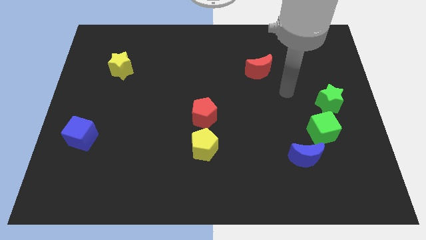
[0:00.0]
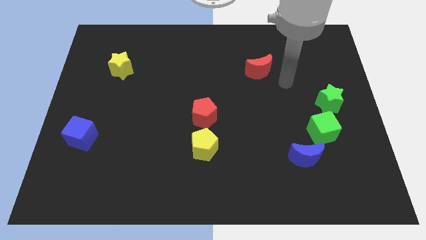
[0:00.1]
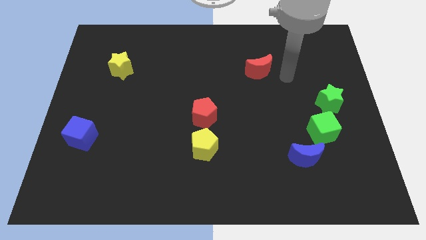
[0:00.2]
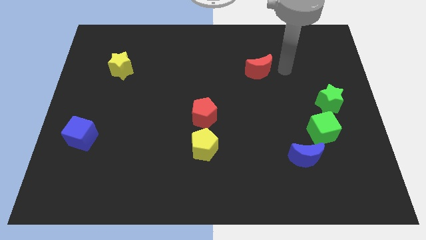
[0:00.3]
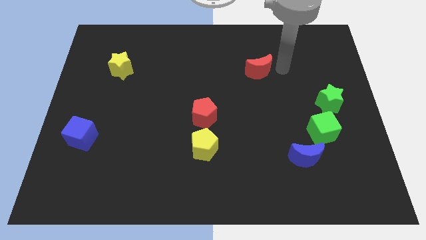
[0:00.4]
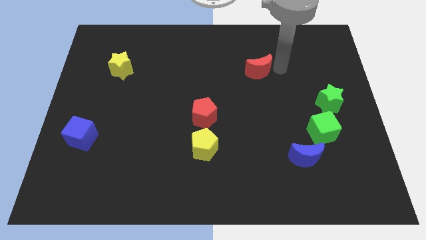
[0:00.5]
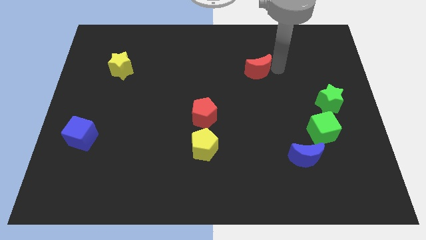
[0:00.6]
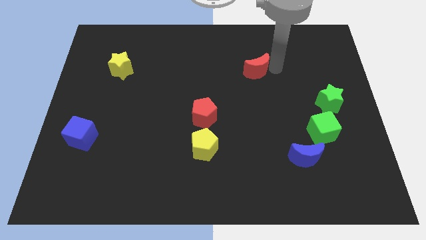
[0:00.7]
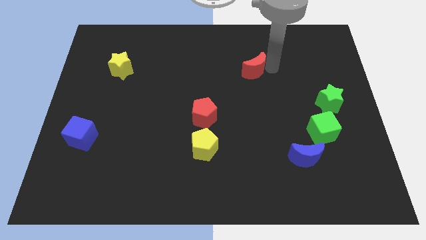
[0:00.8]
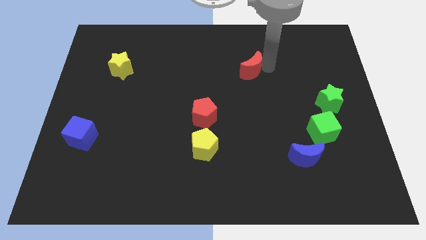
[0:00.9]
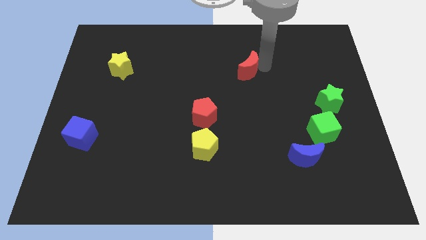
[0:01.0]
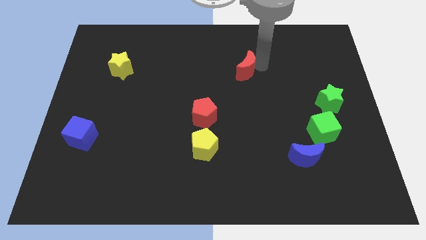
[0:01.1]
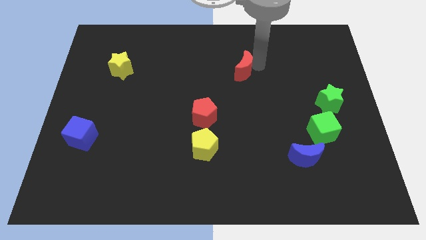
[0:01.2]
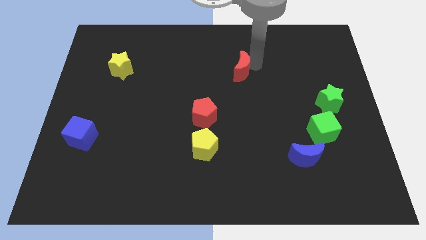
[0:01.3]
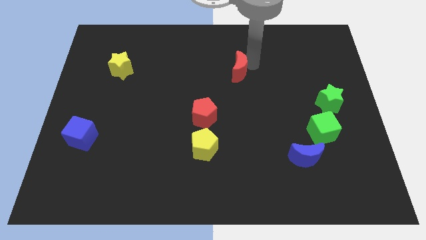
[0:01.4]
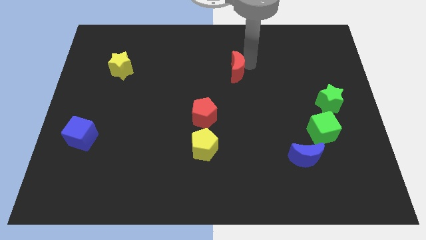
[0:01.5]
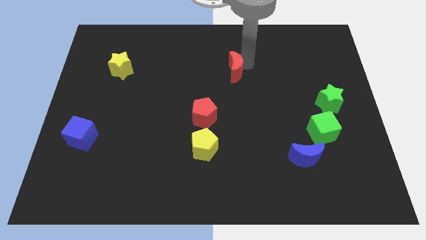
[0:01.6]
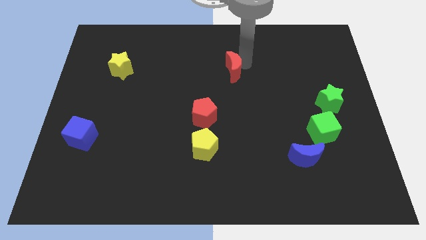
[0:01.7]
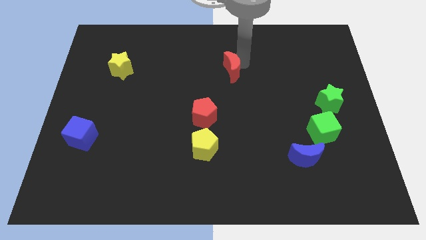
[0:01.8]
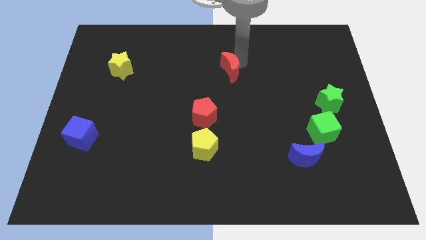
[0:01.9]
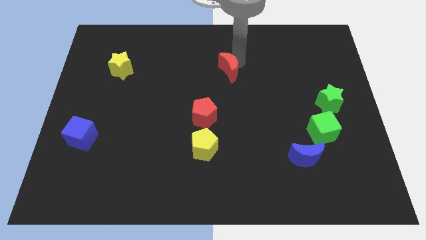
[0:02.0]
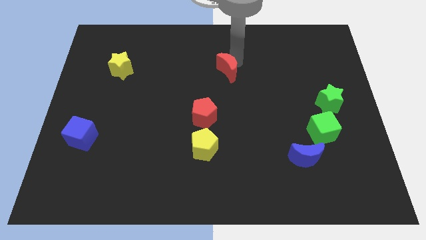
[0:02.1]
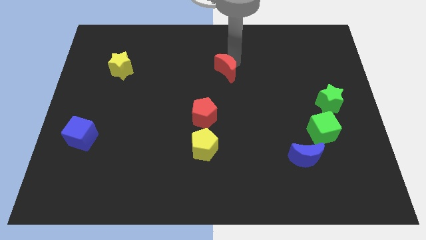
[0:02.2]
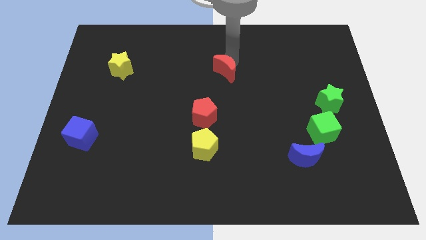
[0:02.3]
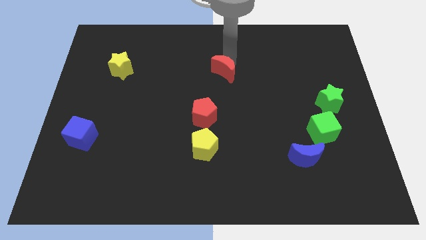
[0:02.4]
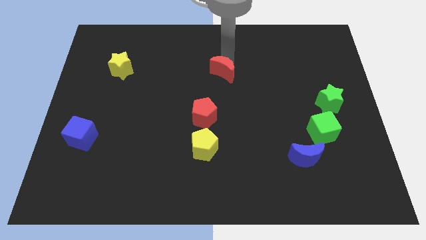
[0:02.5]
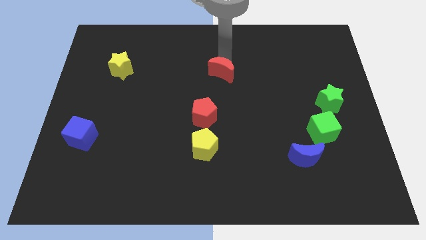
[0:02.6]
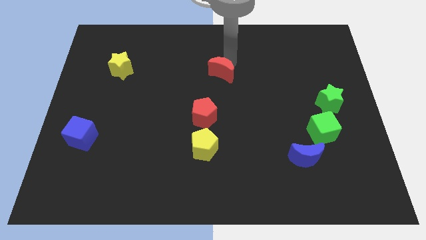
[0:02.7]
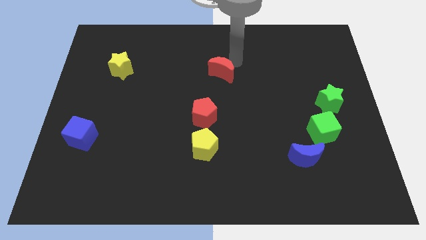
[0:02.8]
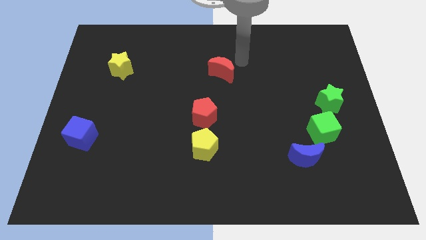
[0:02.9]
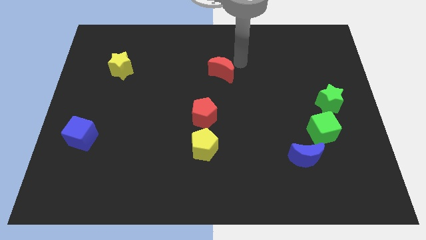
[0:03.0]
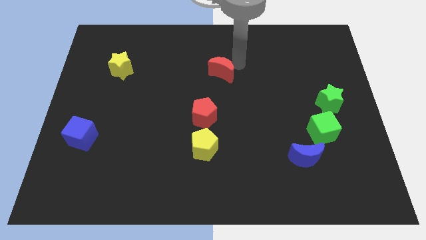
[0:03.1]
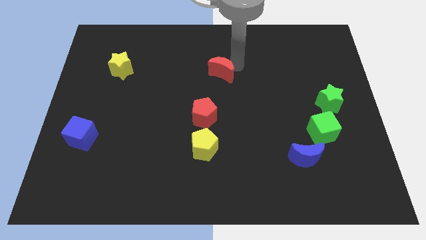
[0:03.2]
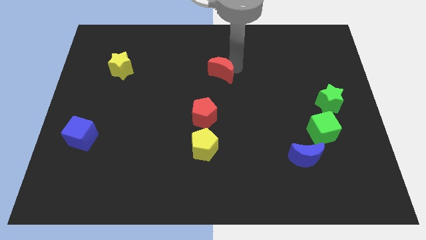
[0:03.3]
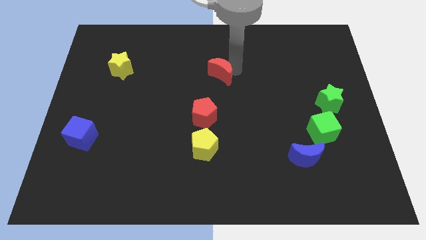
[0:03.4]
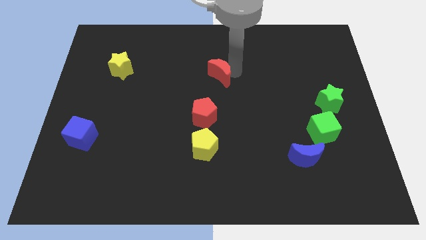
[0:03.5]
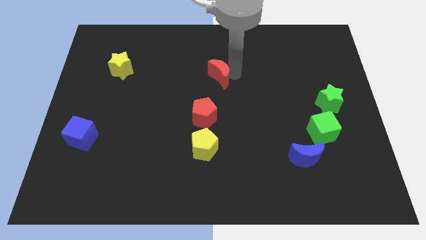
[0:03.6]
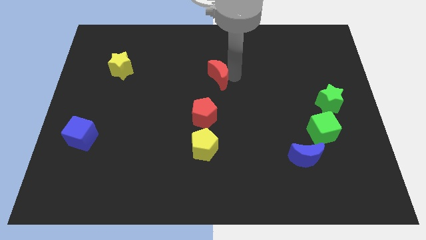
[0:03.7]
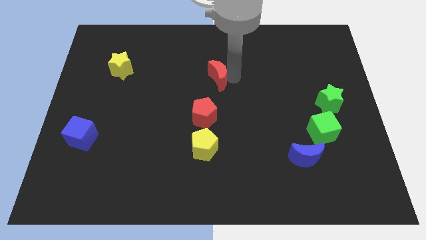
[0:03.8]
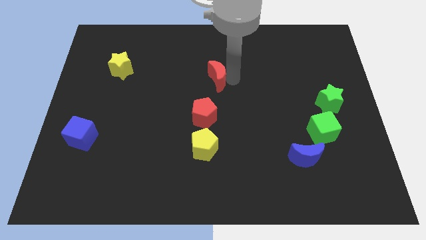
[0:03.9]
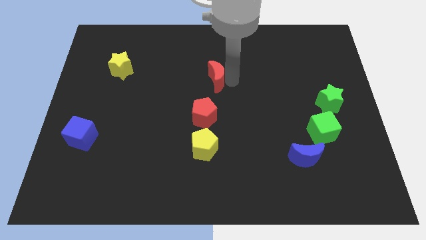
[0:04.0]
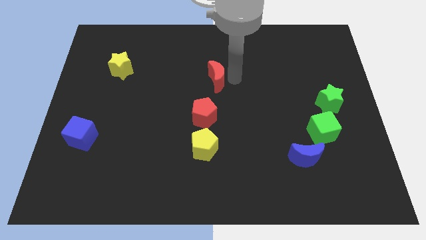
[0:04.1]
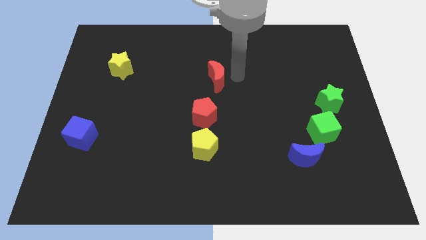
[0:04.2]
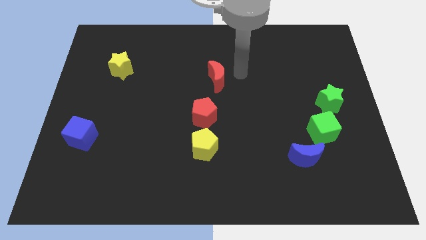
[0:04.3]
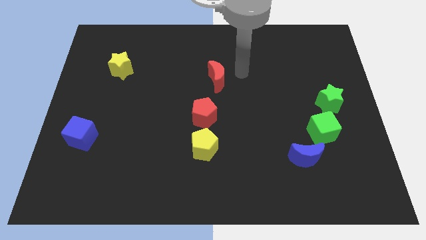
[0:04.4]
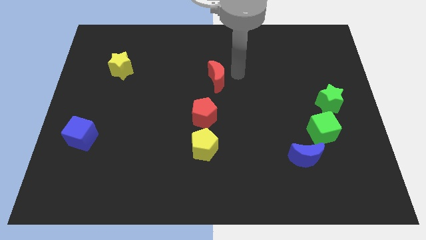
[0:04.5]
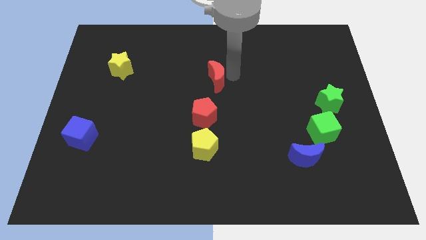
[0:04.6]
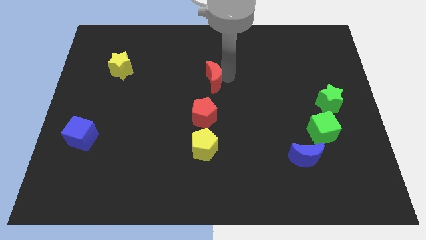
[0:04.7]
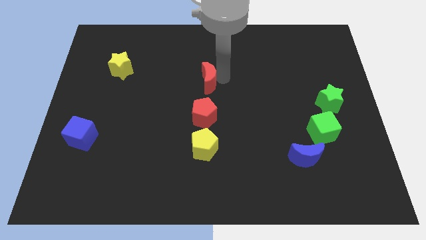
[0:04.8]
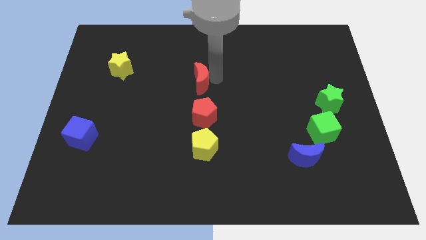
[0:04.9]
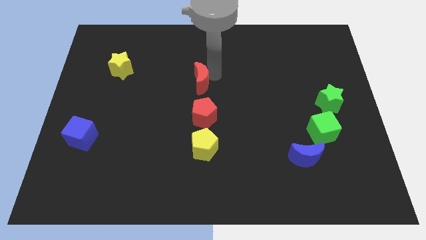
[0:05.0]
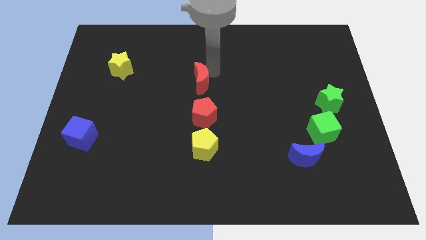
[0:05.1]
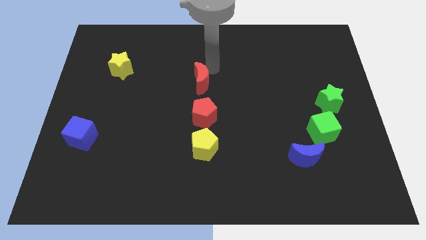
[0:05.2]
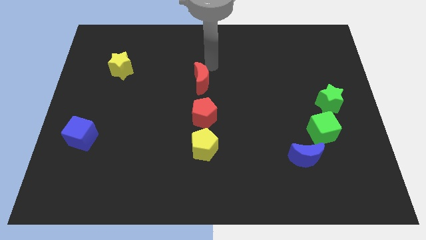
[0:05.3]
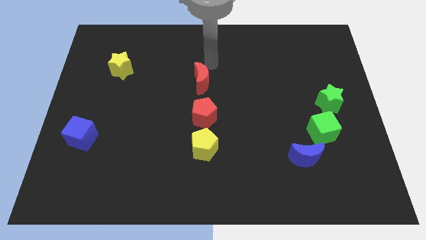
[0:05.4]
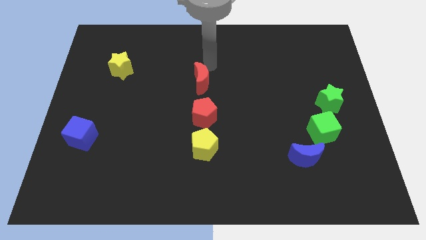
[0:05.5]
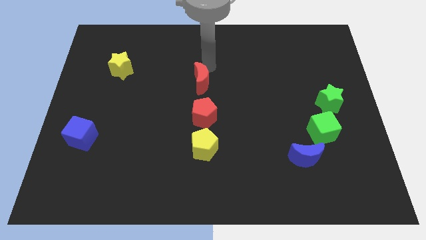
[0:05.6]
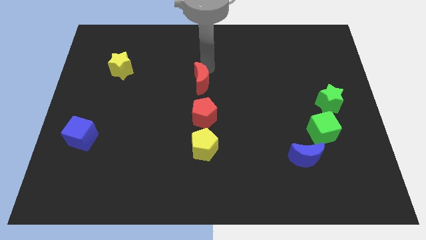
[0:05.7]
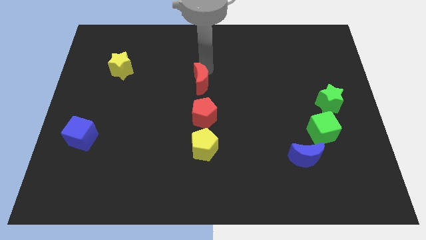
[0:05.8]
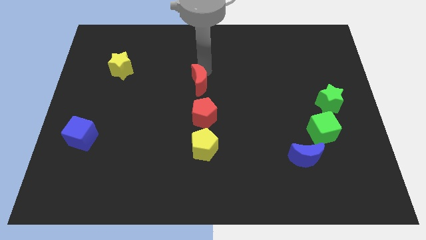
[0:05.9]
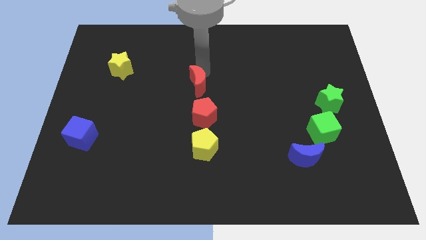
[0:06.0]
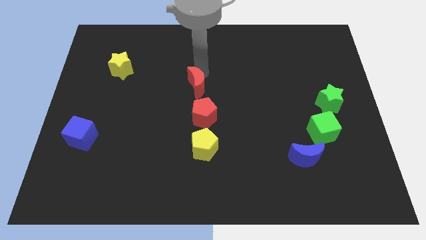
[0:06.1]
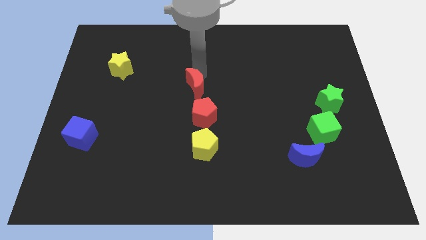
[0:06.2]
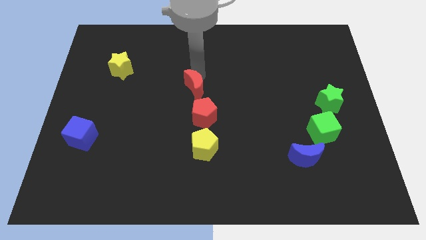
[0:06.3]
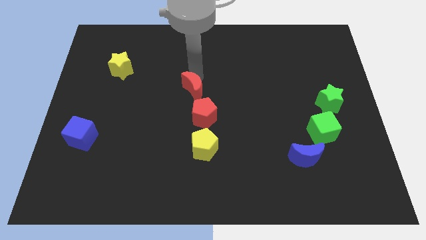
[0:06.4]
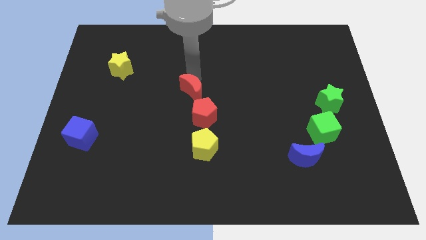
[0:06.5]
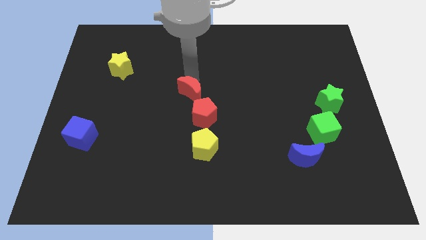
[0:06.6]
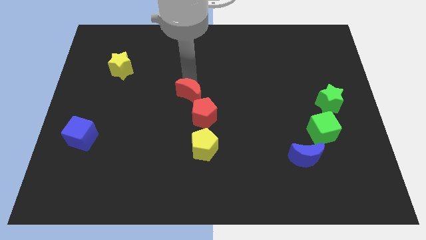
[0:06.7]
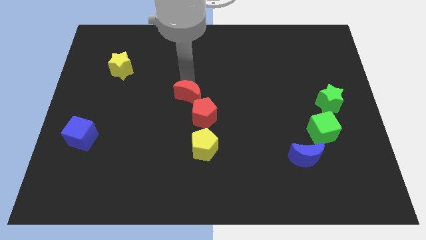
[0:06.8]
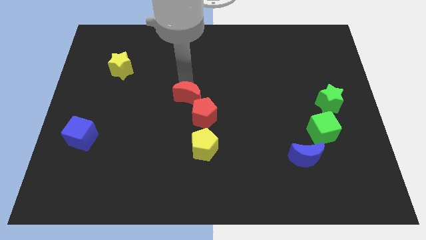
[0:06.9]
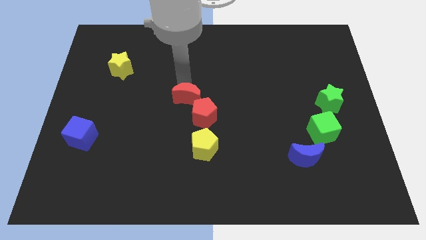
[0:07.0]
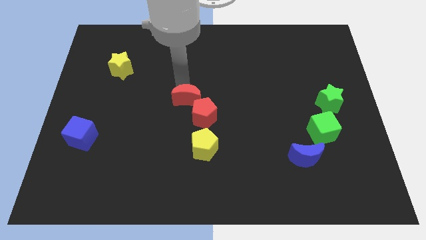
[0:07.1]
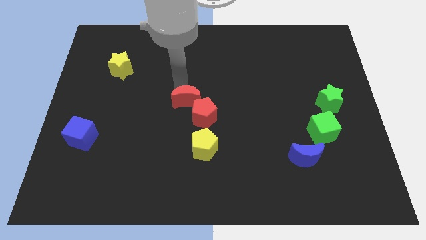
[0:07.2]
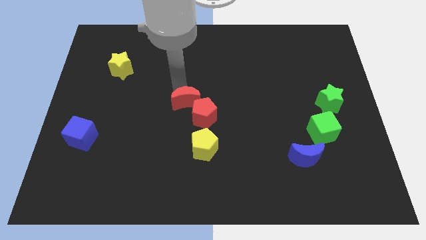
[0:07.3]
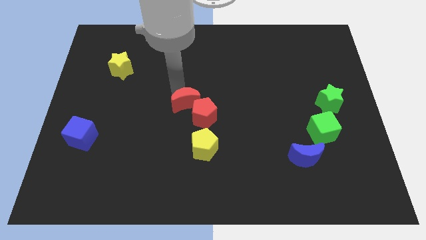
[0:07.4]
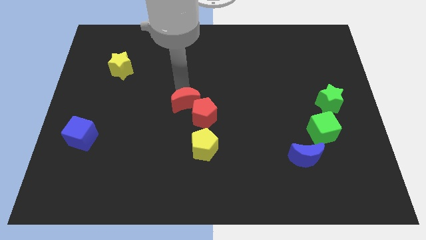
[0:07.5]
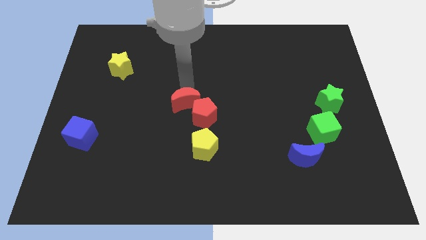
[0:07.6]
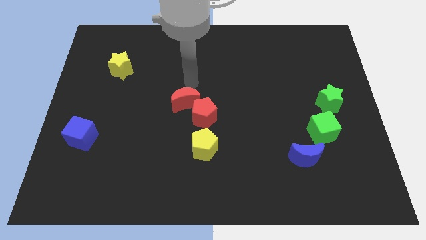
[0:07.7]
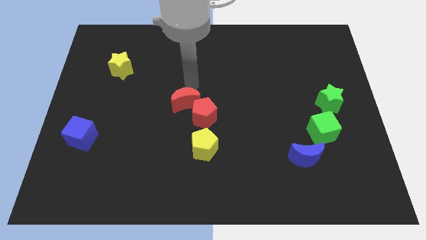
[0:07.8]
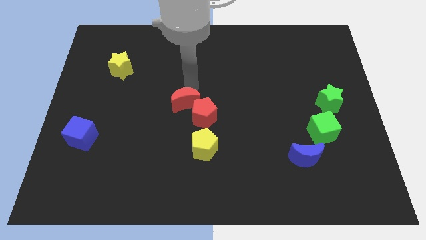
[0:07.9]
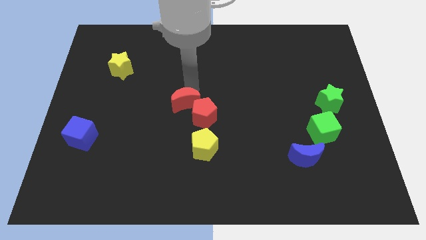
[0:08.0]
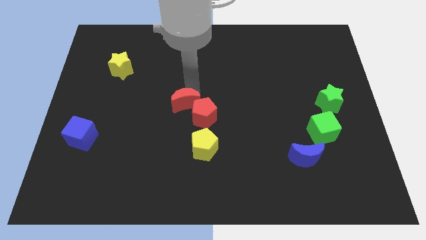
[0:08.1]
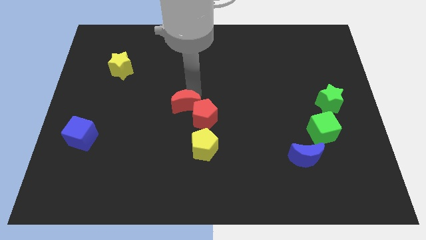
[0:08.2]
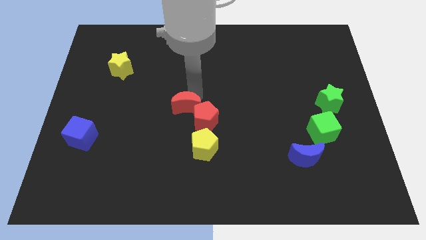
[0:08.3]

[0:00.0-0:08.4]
slide the red moon downwards and left
